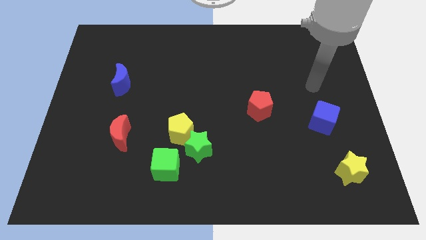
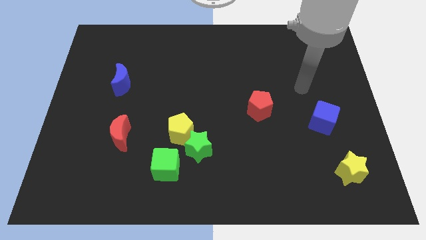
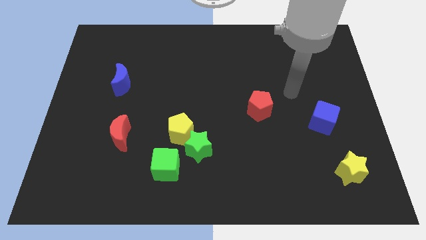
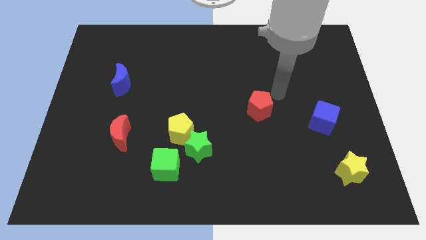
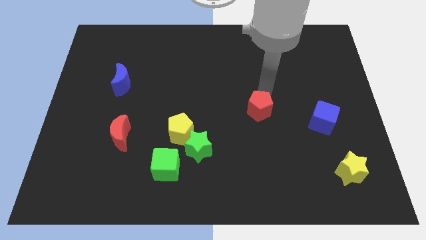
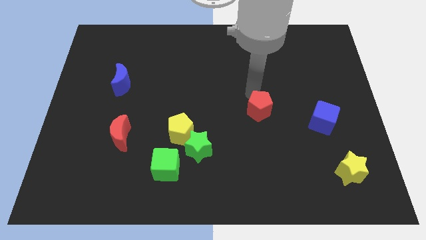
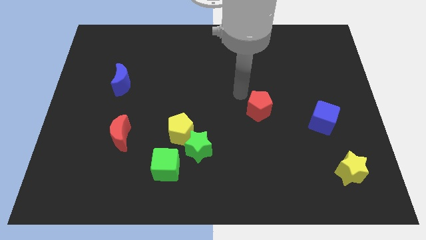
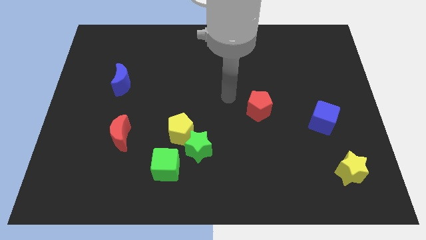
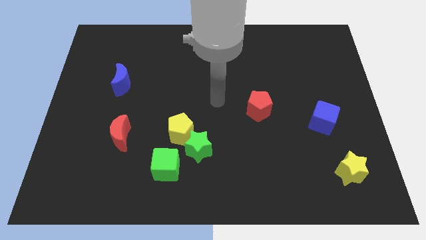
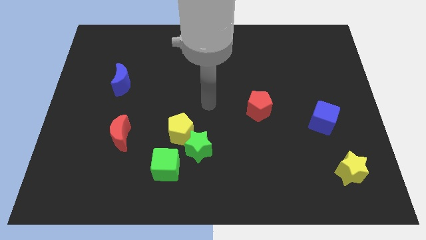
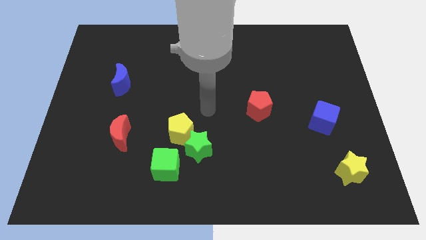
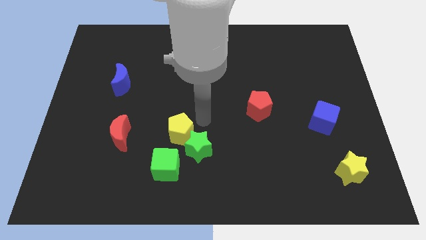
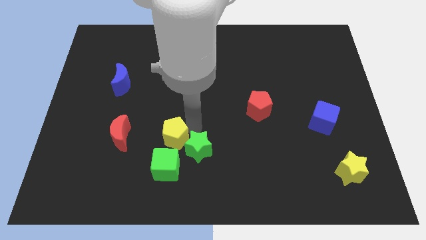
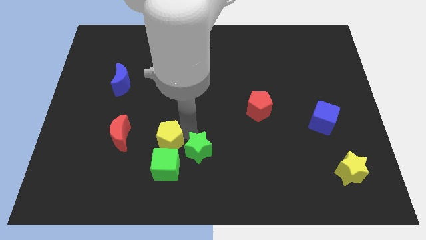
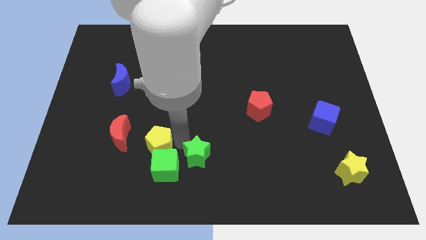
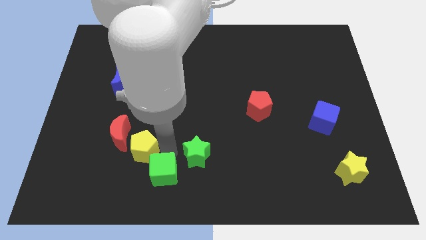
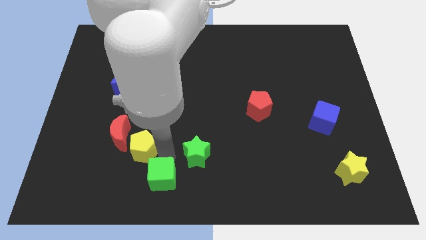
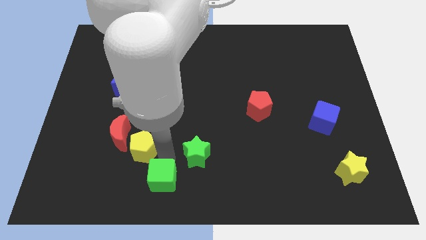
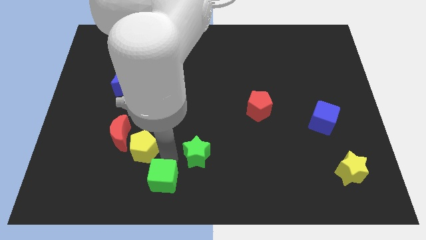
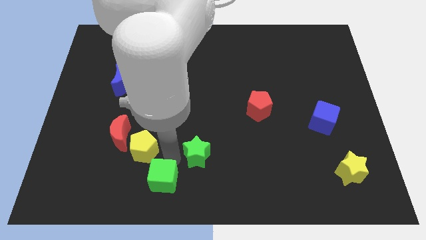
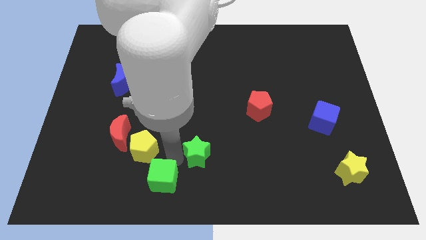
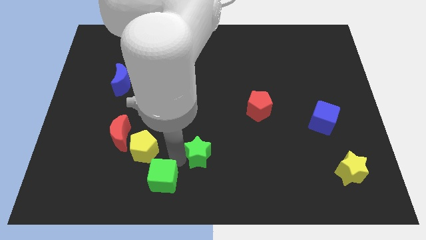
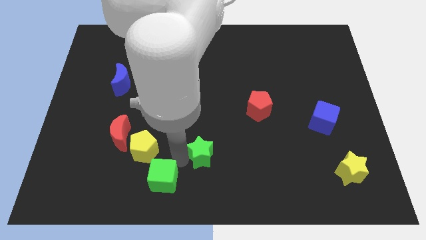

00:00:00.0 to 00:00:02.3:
separate the green star from the yellow pentagon and green cube

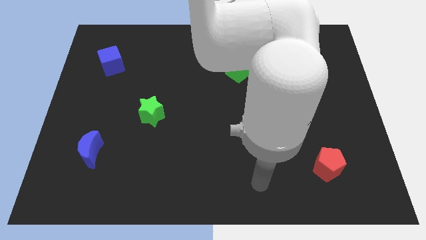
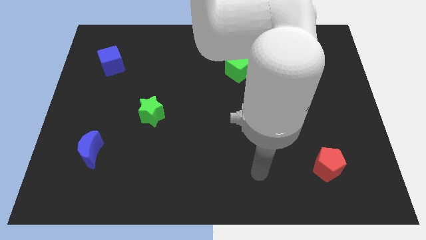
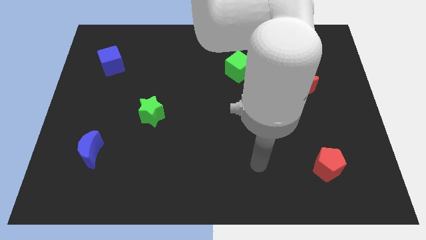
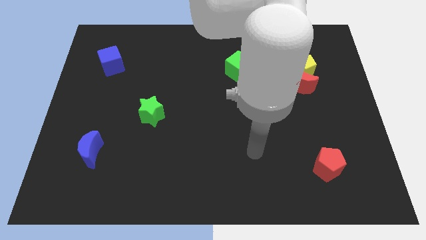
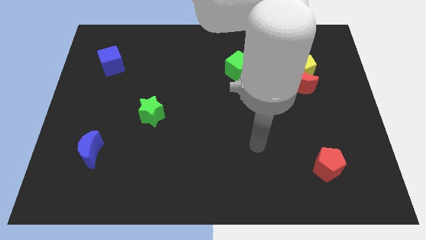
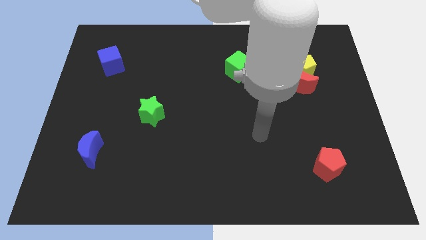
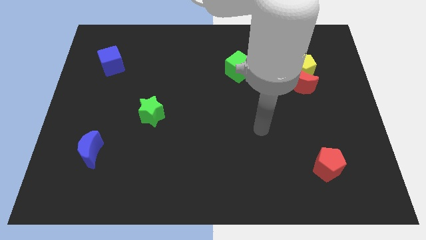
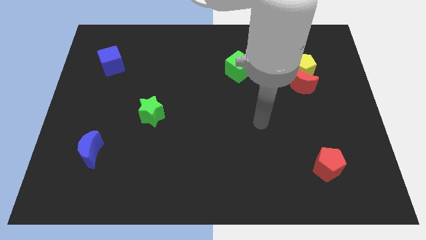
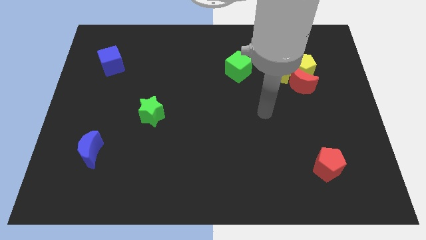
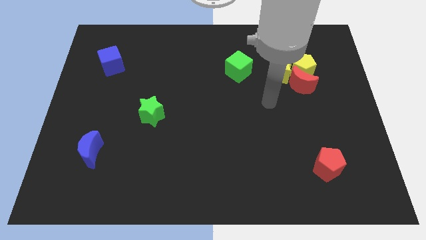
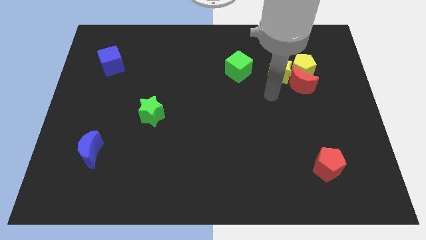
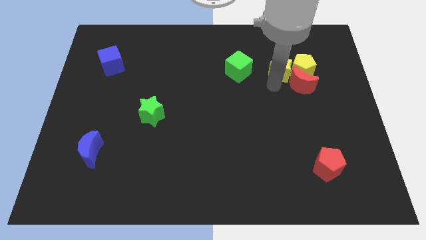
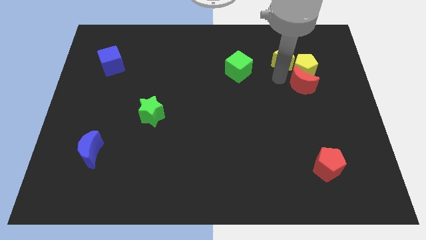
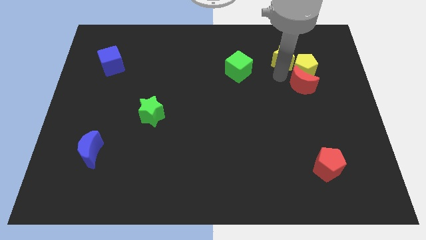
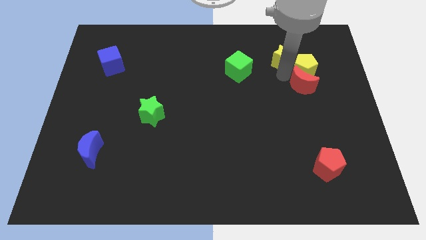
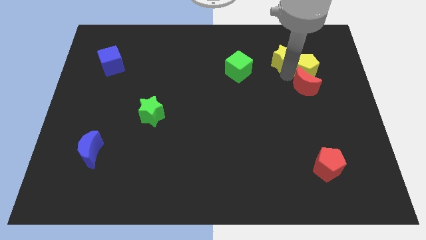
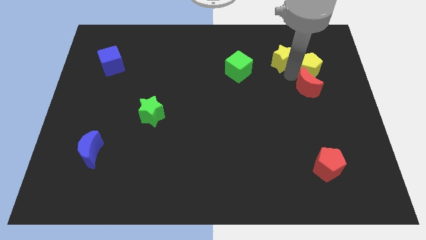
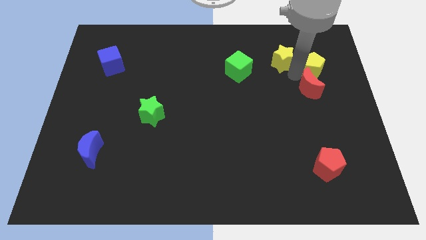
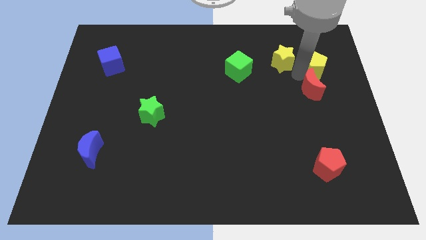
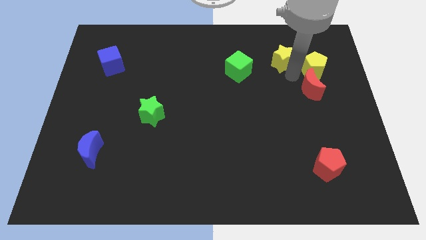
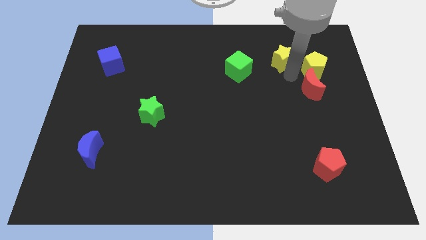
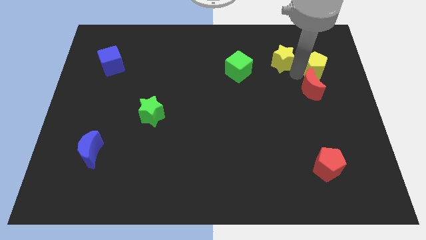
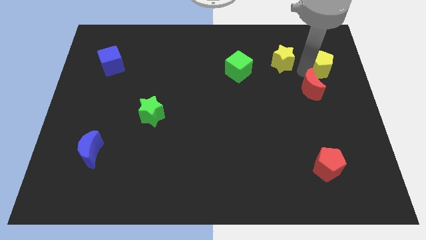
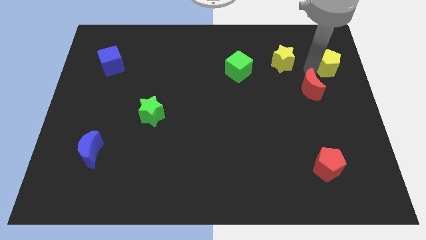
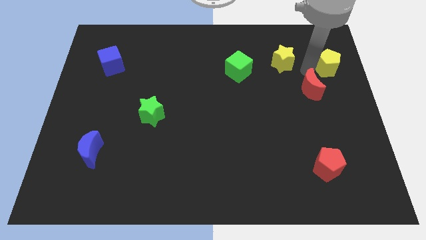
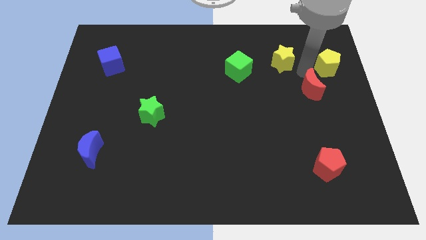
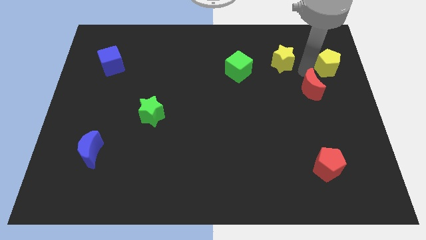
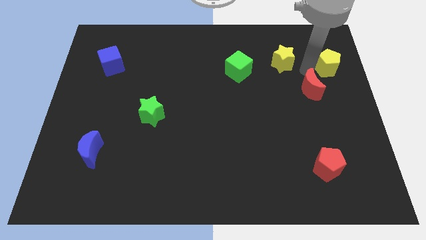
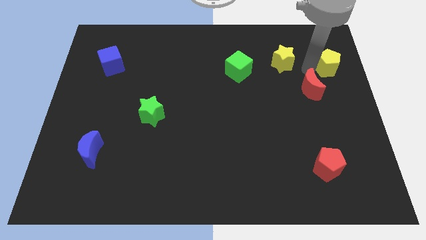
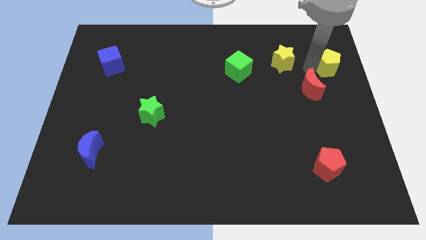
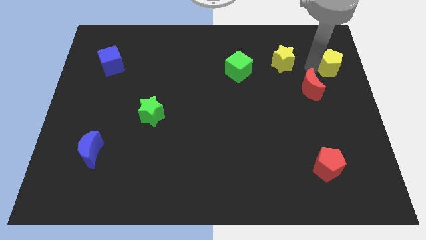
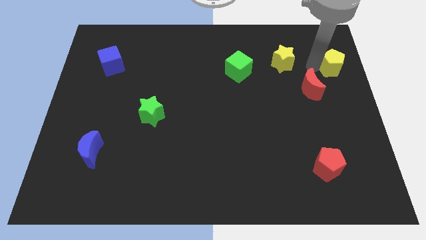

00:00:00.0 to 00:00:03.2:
pull the yellow pentagon apart from the red moon and yellow star

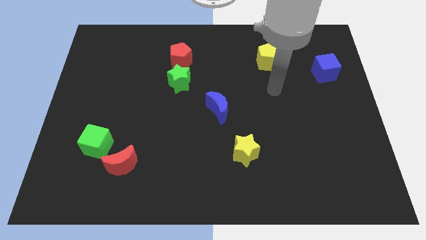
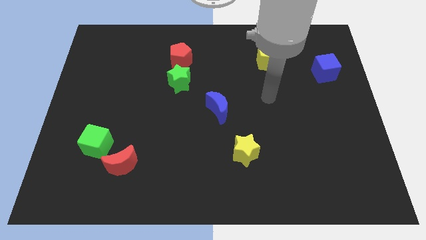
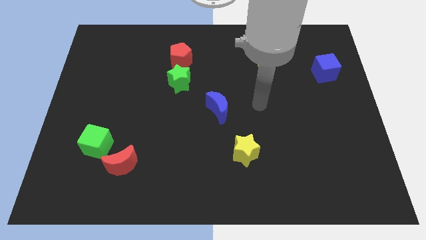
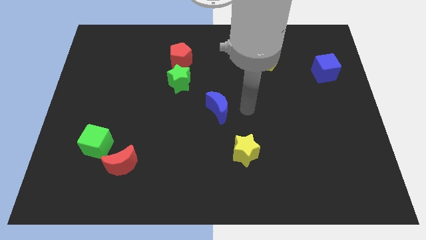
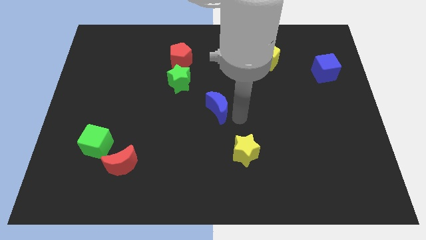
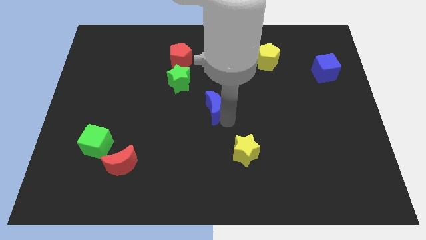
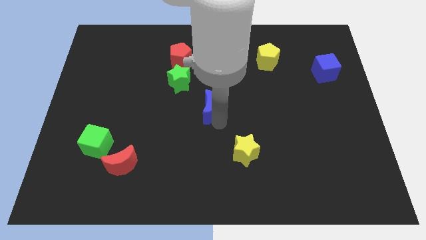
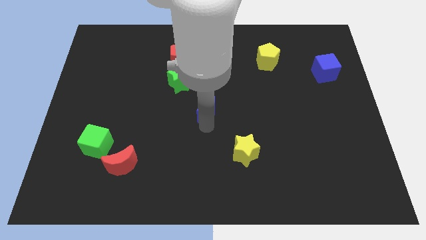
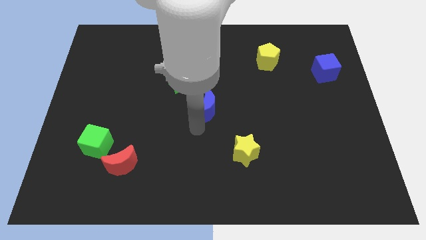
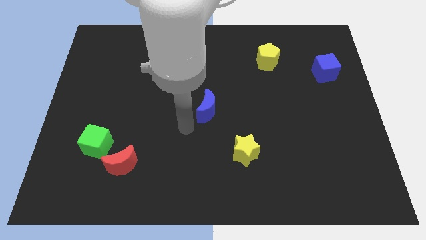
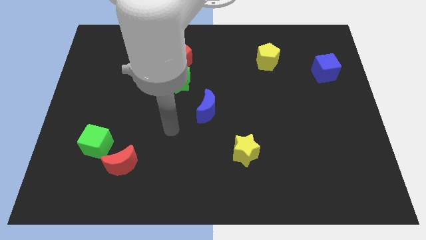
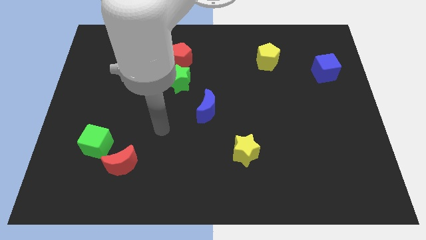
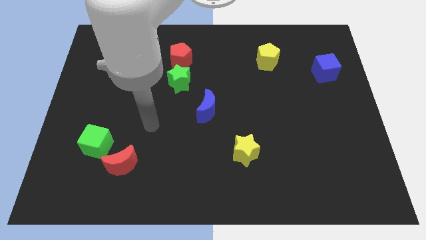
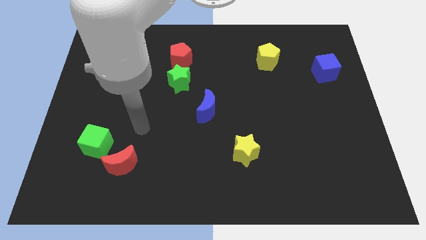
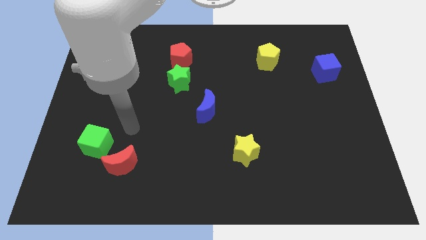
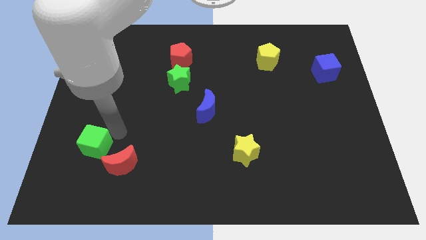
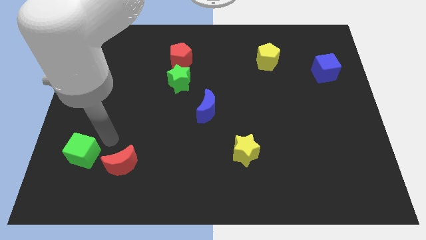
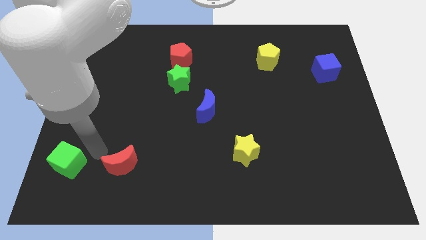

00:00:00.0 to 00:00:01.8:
move the red moon away from the green cube

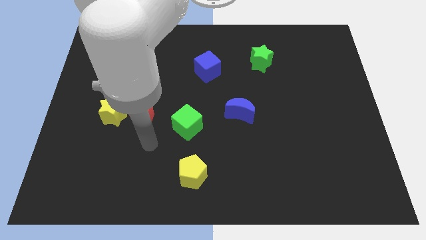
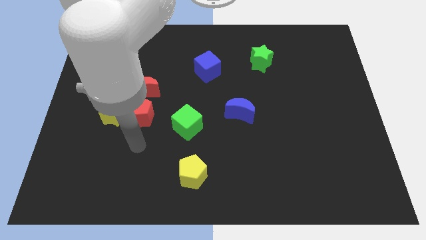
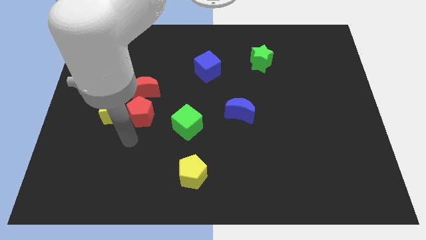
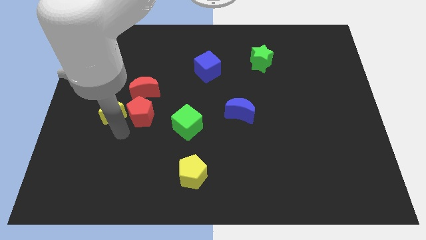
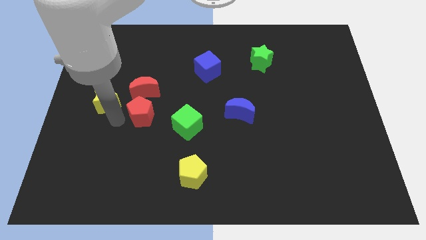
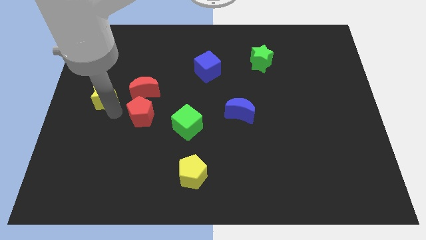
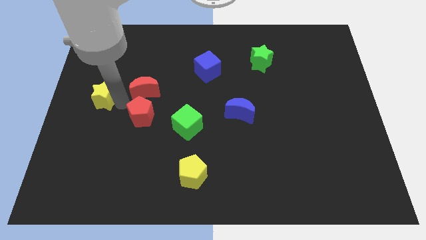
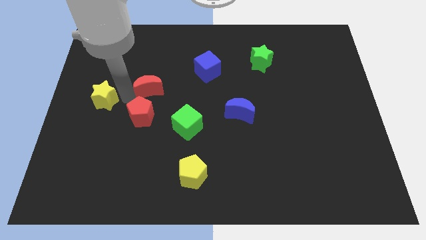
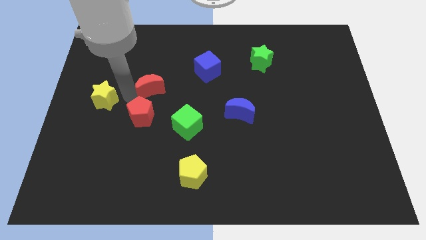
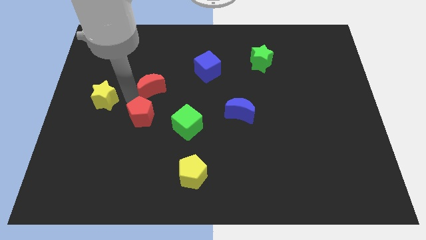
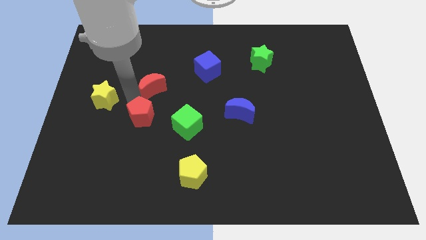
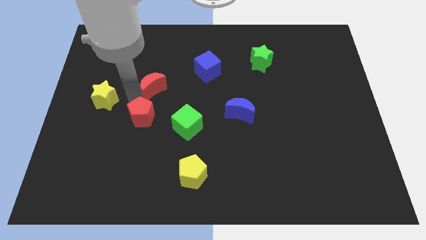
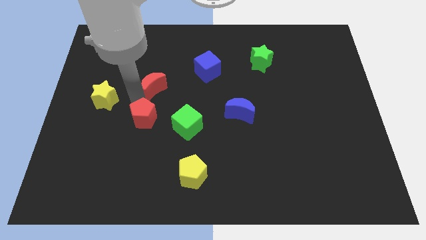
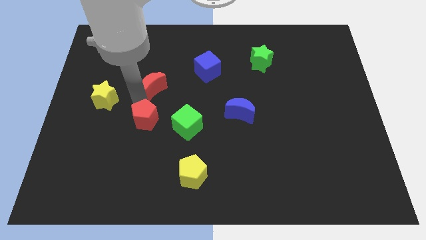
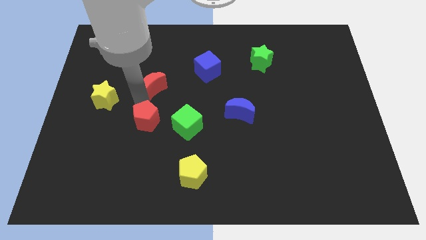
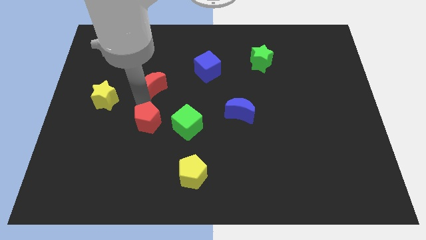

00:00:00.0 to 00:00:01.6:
separate the red pentagon from the yellow star and red moon

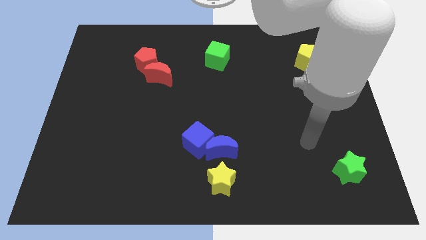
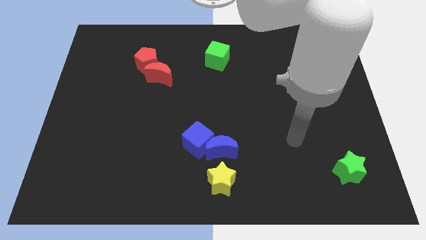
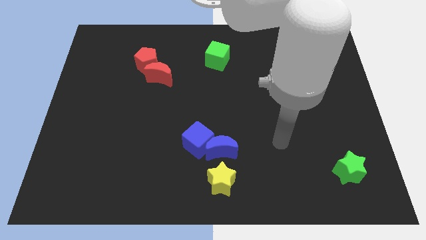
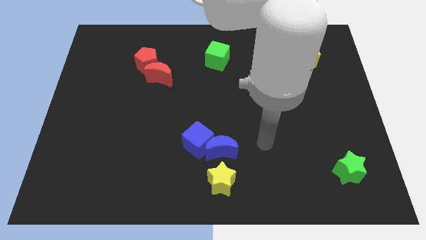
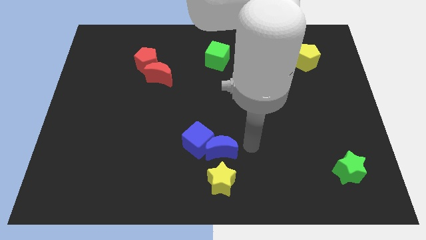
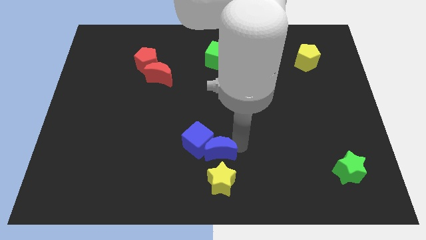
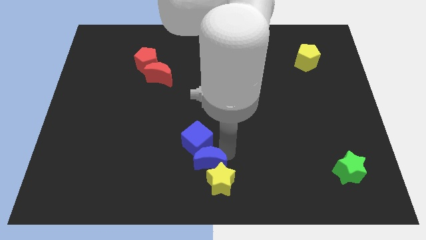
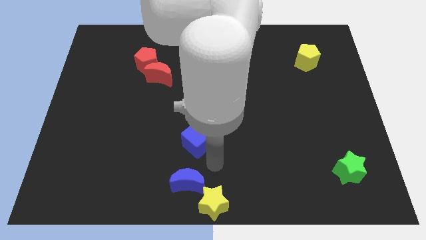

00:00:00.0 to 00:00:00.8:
move the blue cube away from the blue moon
